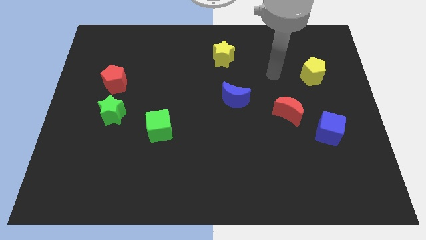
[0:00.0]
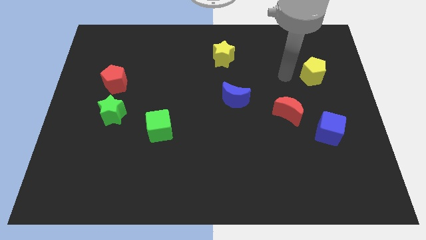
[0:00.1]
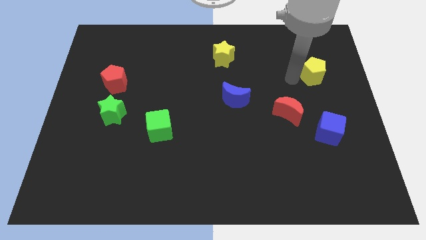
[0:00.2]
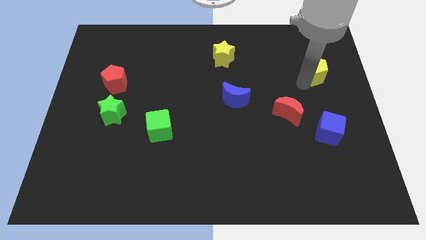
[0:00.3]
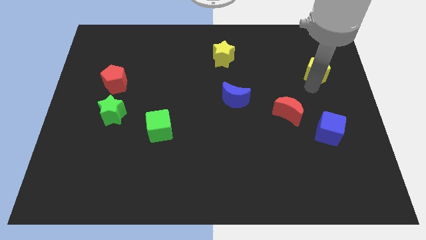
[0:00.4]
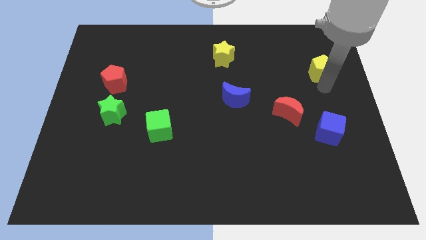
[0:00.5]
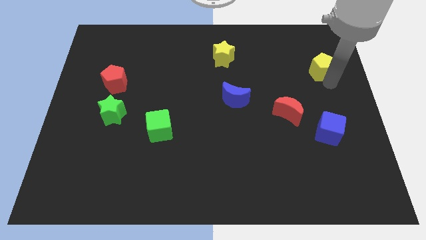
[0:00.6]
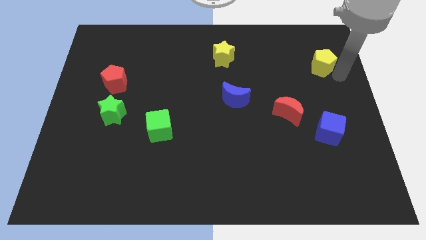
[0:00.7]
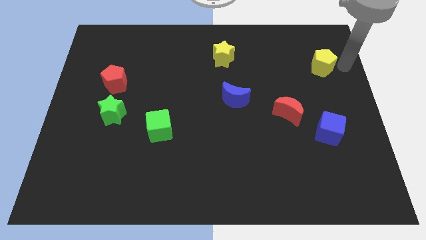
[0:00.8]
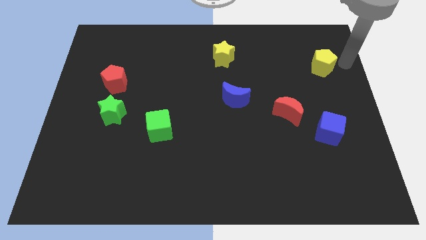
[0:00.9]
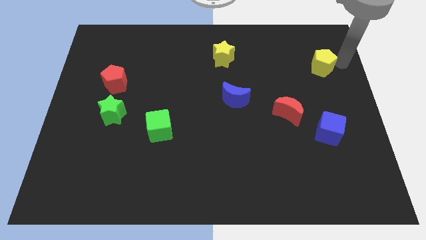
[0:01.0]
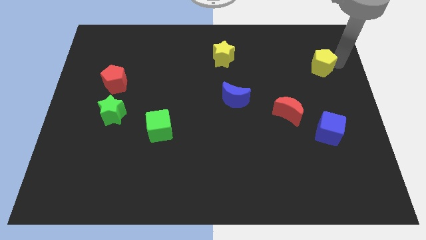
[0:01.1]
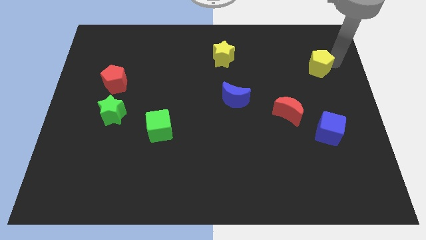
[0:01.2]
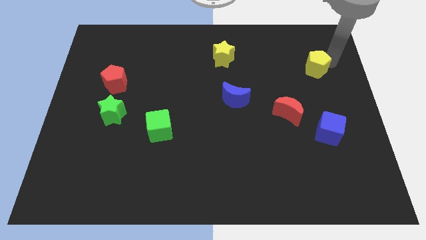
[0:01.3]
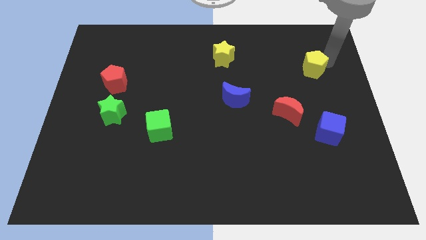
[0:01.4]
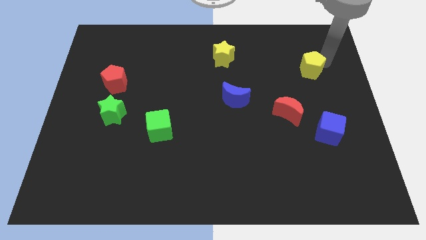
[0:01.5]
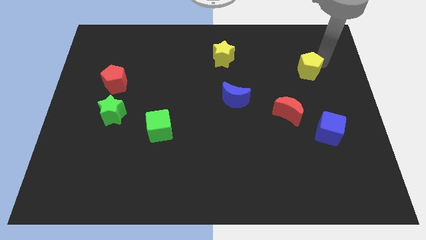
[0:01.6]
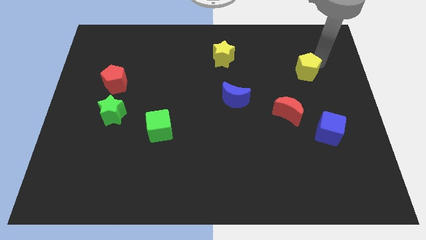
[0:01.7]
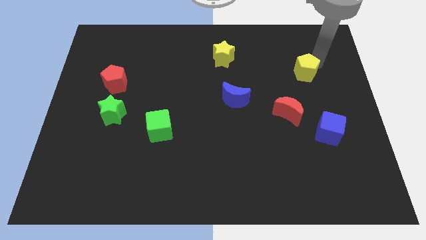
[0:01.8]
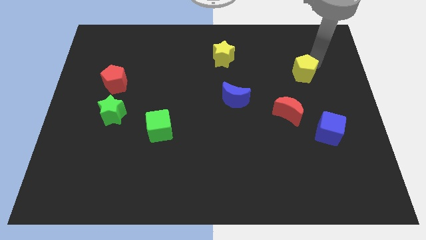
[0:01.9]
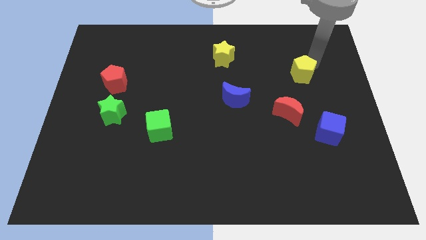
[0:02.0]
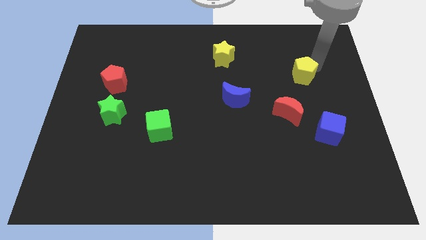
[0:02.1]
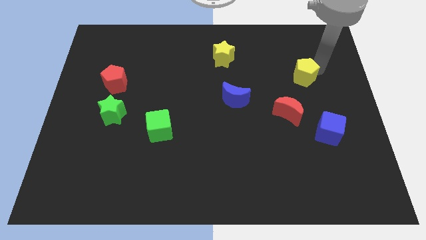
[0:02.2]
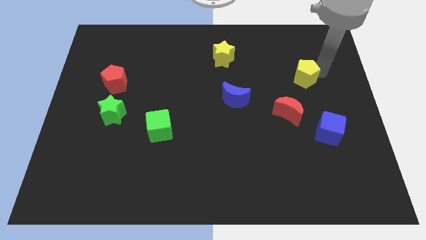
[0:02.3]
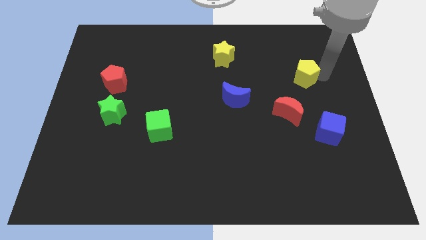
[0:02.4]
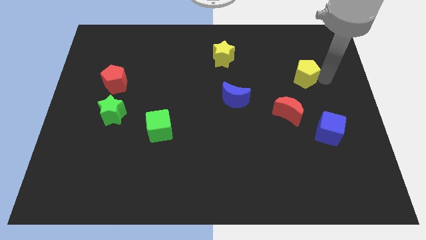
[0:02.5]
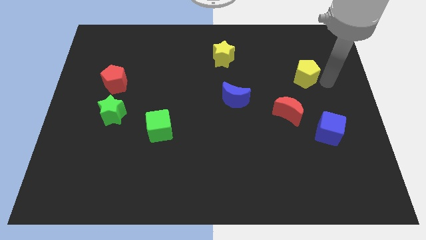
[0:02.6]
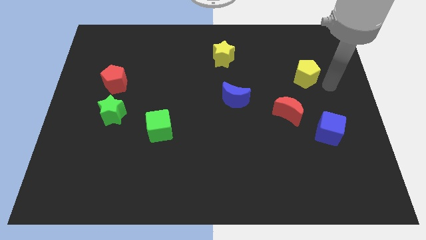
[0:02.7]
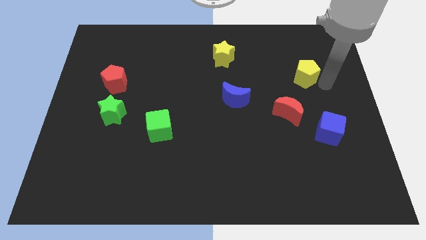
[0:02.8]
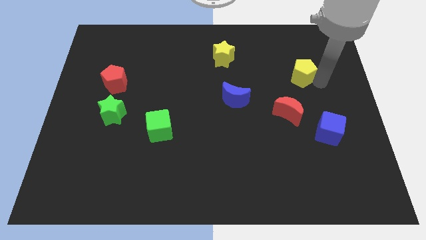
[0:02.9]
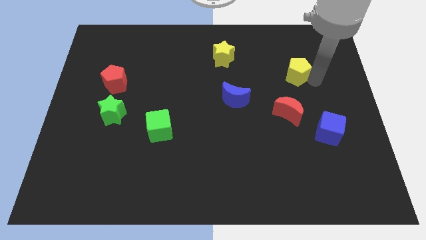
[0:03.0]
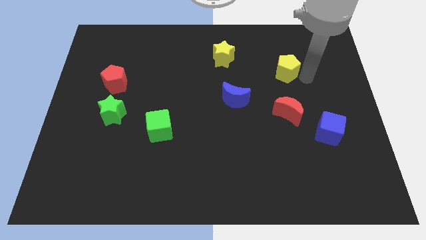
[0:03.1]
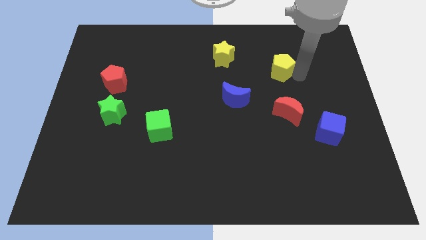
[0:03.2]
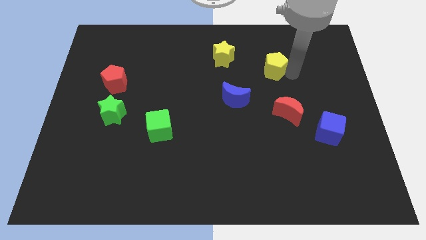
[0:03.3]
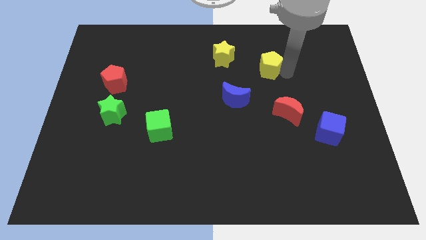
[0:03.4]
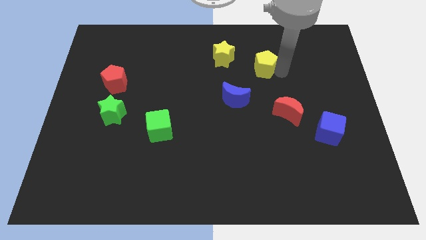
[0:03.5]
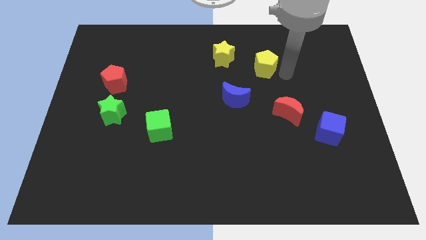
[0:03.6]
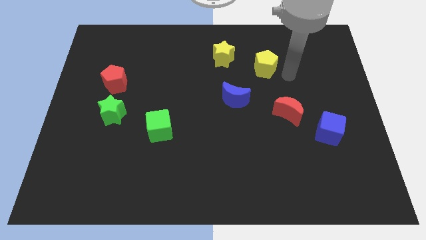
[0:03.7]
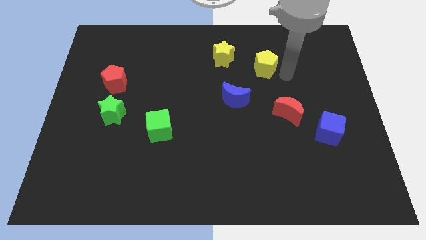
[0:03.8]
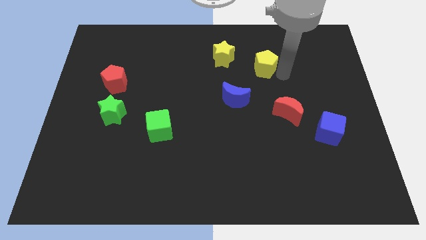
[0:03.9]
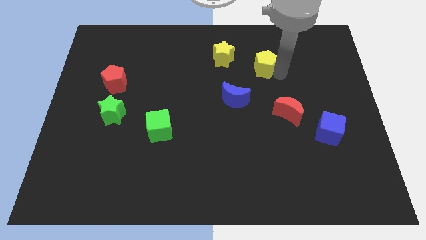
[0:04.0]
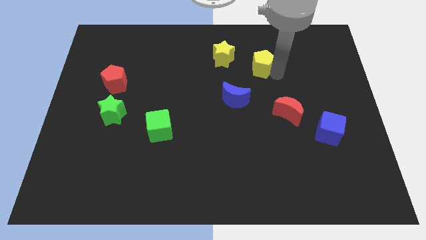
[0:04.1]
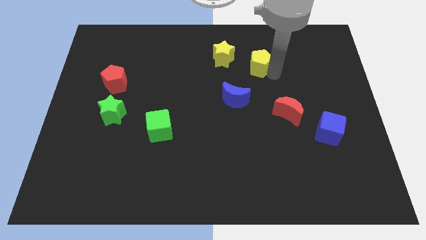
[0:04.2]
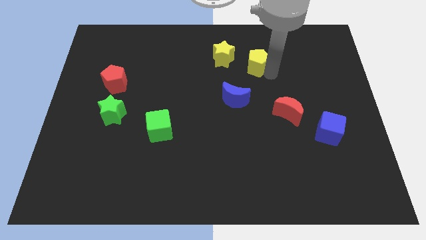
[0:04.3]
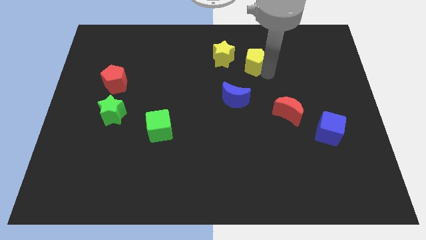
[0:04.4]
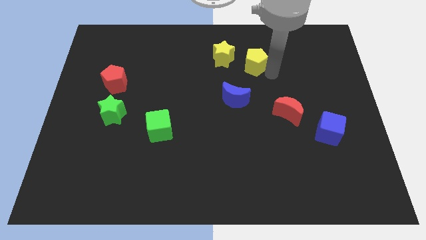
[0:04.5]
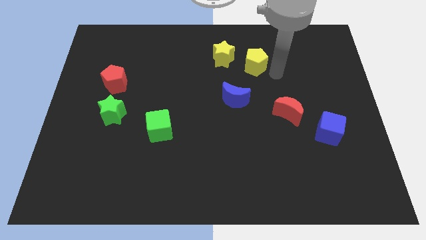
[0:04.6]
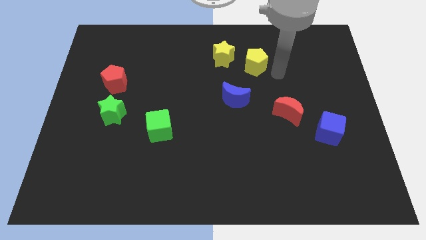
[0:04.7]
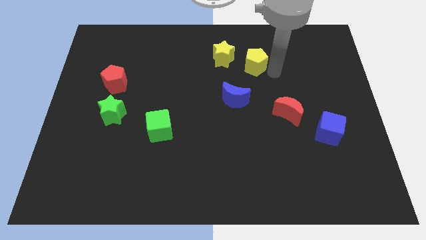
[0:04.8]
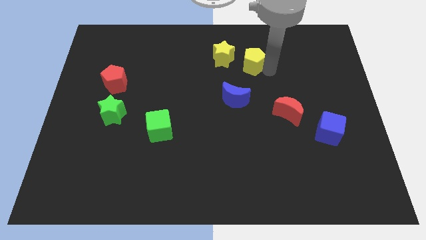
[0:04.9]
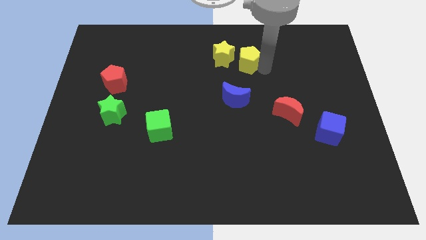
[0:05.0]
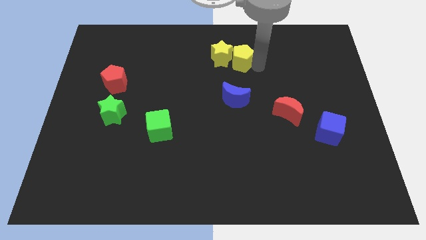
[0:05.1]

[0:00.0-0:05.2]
put the yellow pentagon close to the yellow star

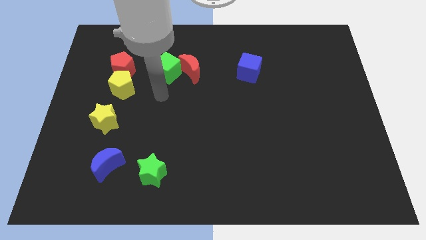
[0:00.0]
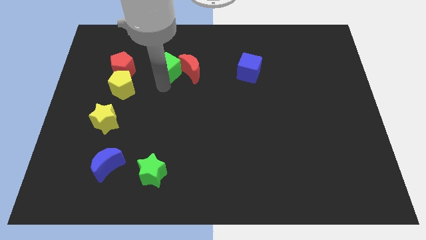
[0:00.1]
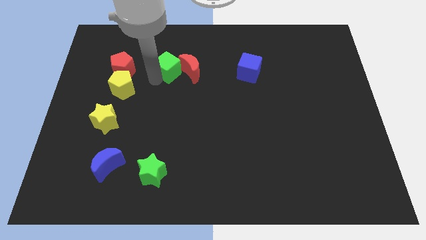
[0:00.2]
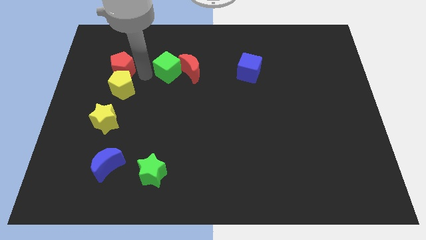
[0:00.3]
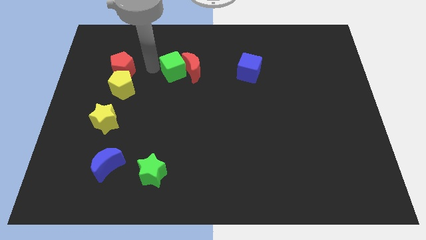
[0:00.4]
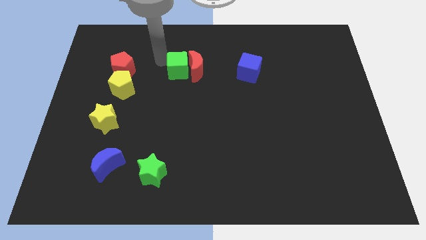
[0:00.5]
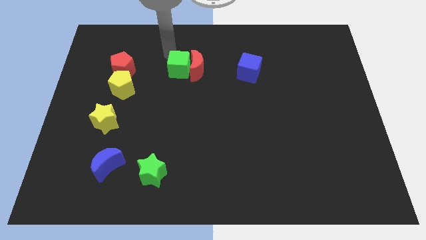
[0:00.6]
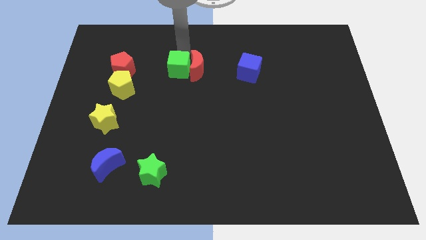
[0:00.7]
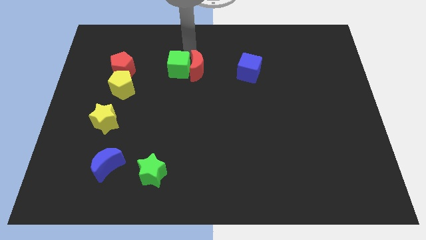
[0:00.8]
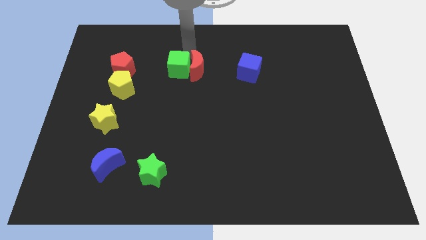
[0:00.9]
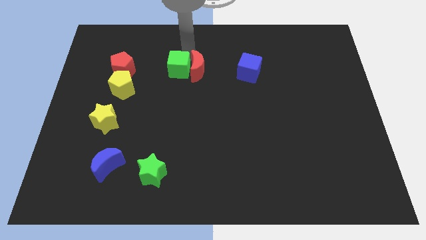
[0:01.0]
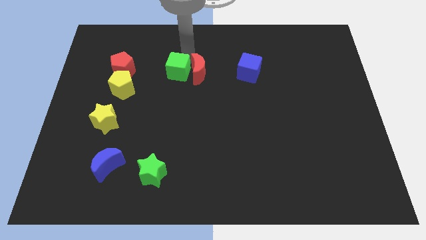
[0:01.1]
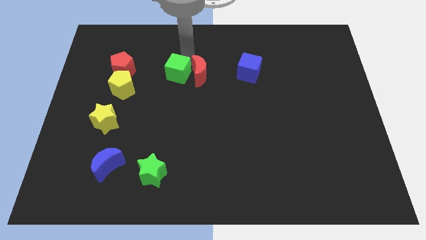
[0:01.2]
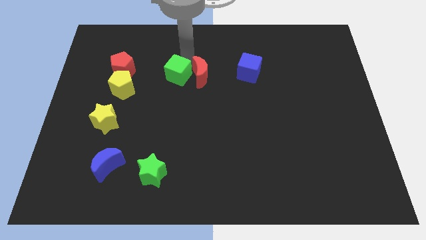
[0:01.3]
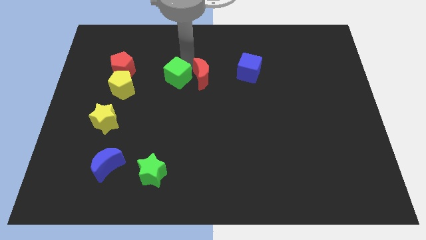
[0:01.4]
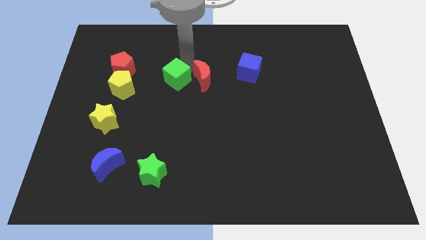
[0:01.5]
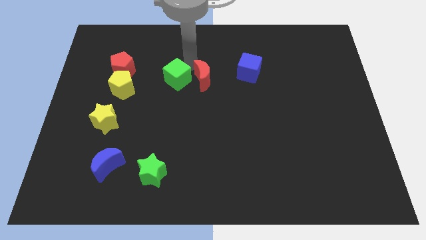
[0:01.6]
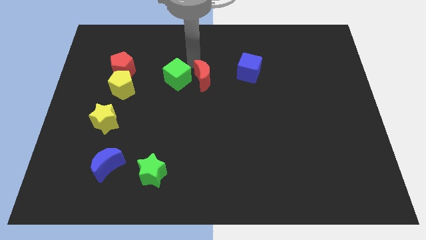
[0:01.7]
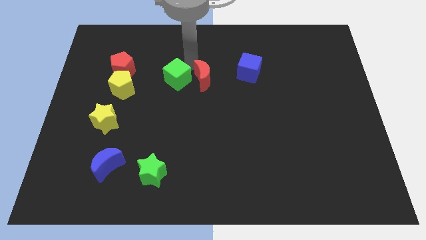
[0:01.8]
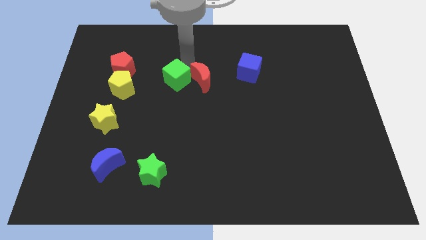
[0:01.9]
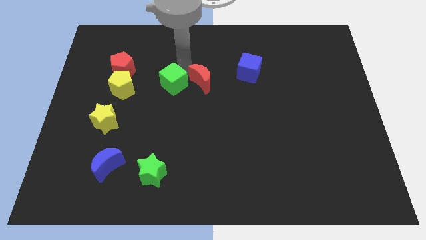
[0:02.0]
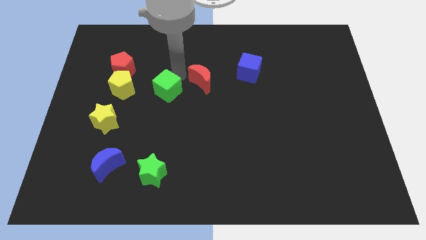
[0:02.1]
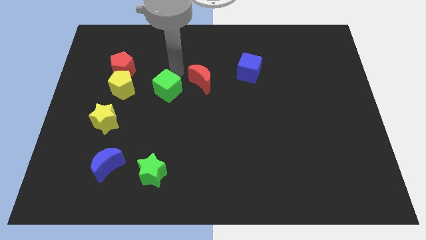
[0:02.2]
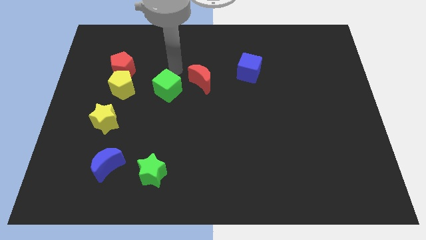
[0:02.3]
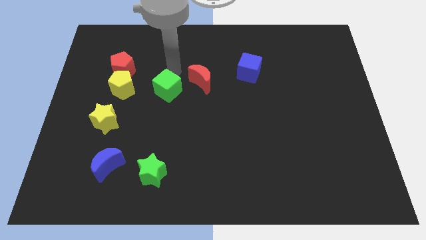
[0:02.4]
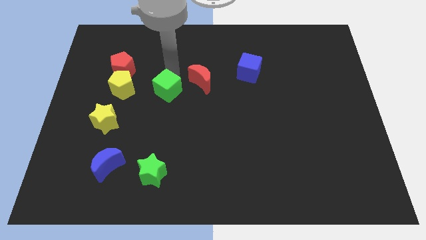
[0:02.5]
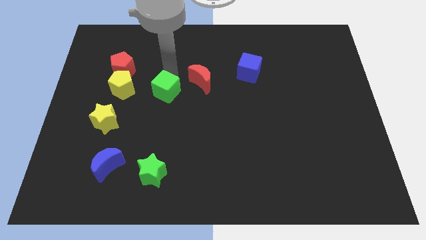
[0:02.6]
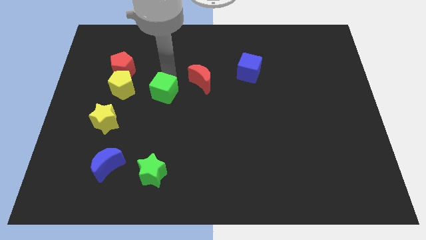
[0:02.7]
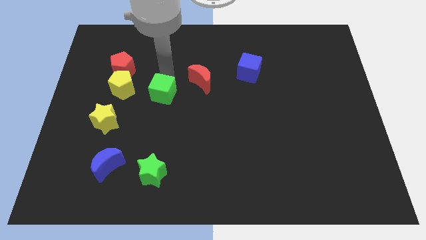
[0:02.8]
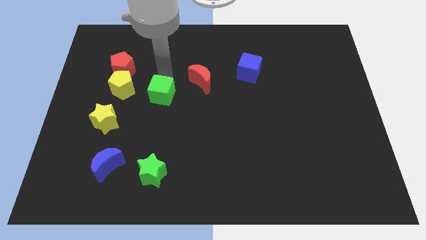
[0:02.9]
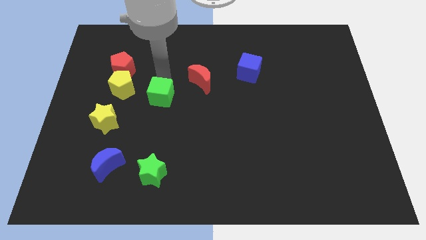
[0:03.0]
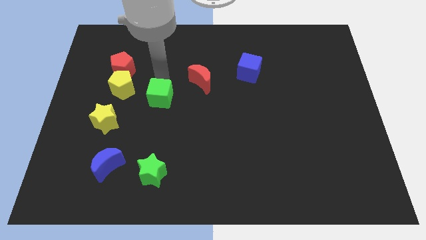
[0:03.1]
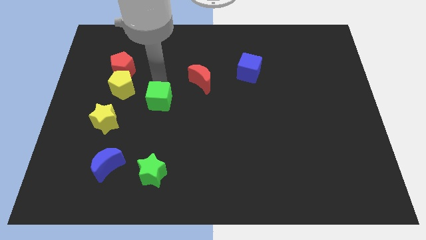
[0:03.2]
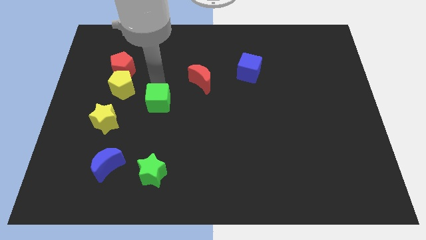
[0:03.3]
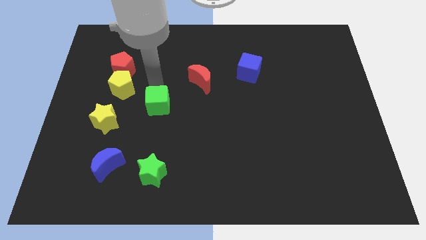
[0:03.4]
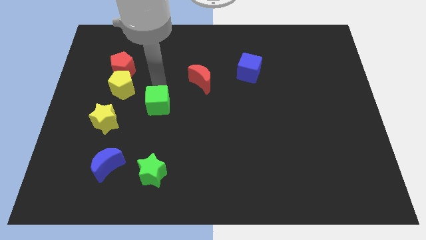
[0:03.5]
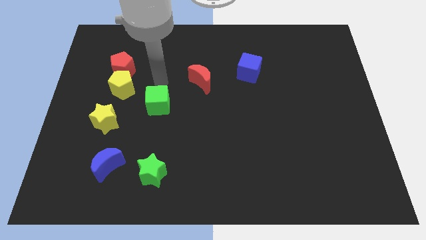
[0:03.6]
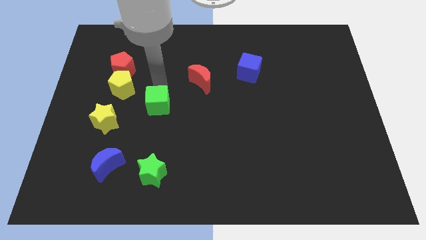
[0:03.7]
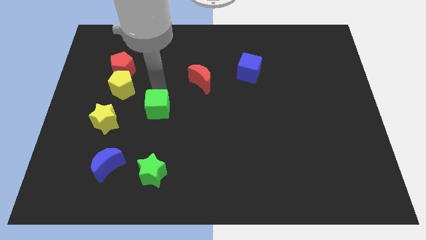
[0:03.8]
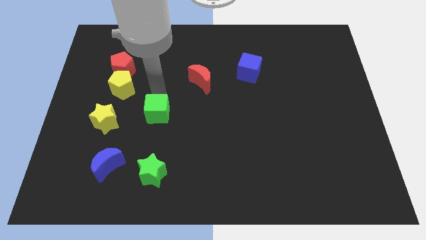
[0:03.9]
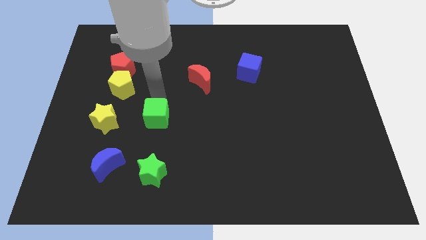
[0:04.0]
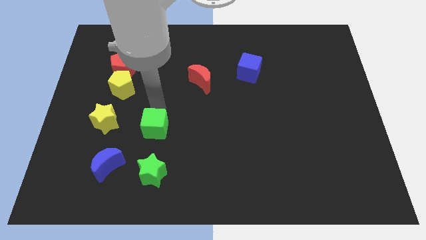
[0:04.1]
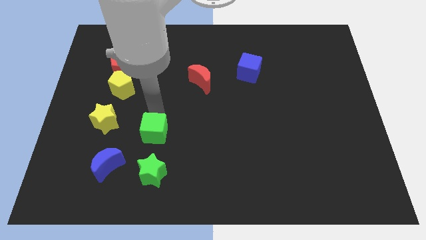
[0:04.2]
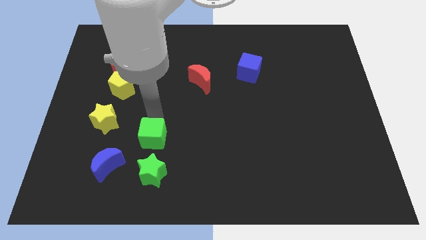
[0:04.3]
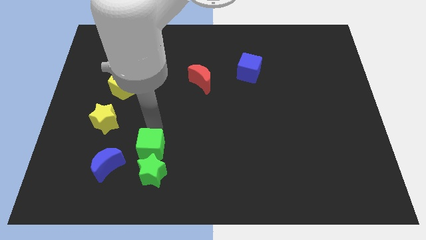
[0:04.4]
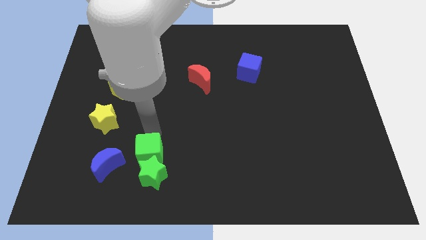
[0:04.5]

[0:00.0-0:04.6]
move the green cube to the green star
